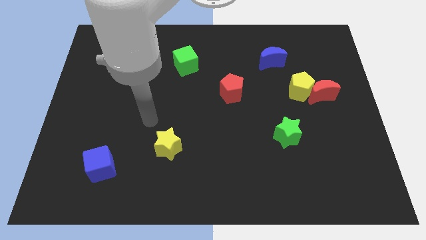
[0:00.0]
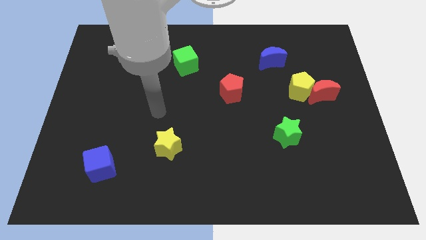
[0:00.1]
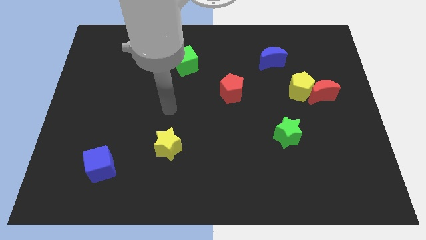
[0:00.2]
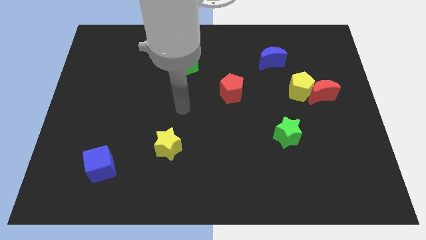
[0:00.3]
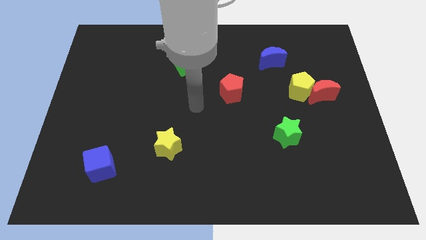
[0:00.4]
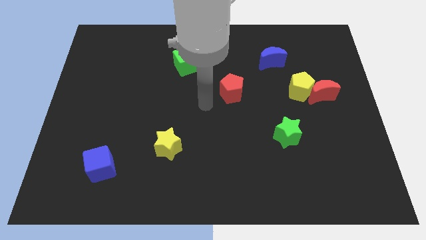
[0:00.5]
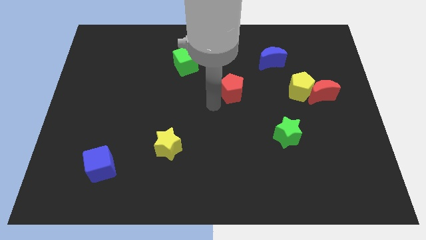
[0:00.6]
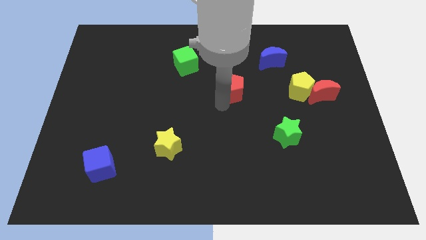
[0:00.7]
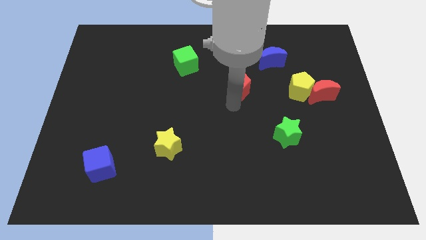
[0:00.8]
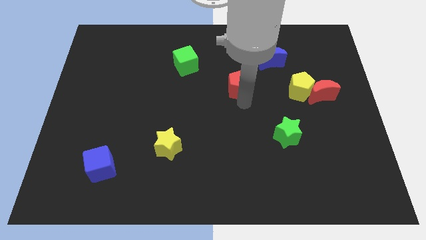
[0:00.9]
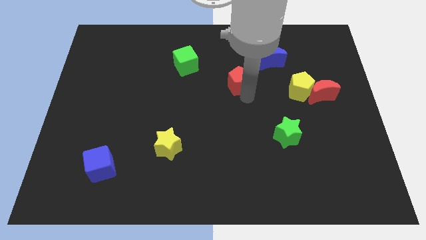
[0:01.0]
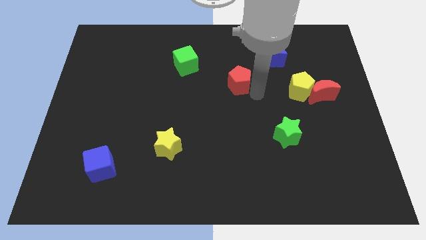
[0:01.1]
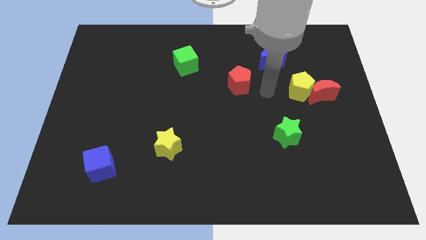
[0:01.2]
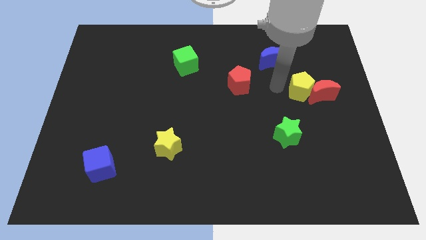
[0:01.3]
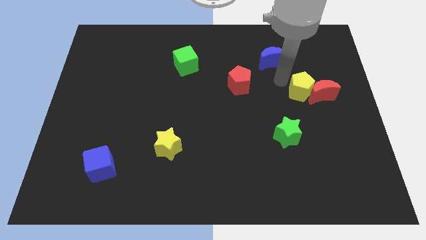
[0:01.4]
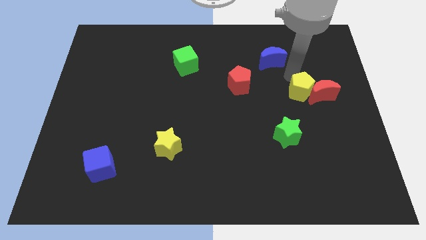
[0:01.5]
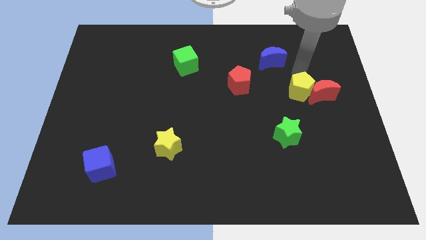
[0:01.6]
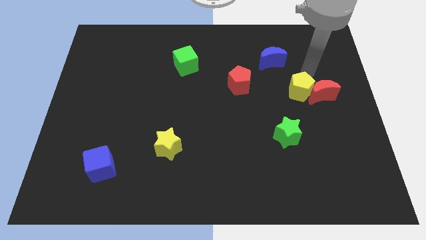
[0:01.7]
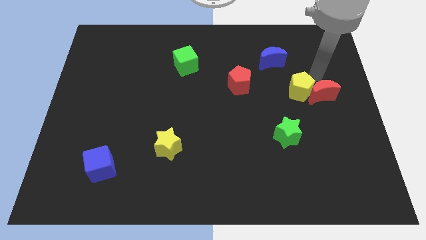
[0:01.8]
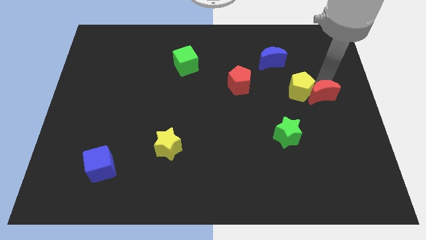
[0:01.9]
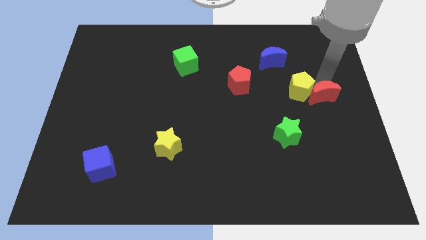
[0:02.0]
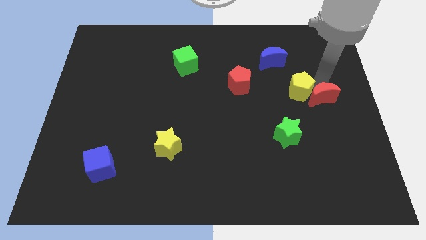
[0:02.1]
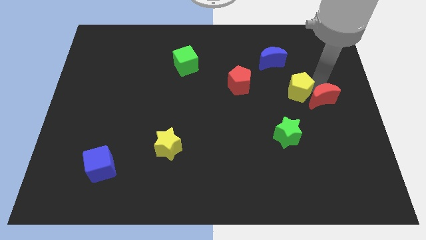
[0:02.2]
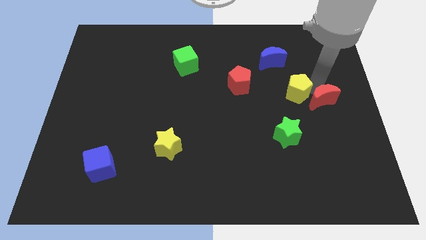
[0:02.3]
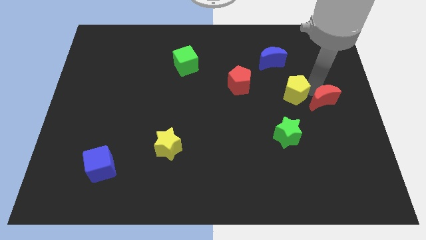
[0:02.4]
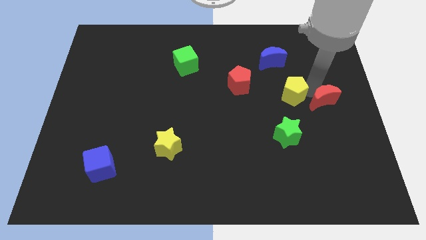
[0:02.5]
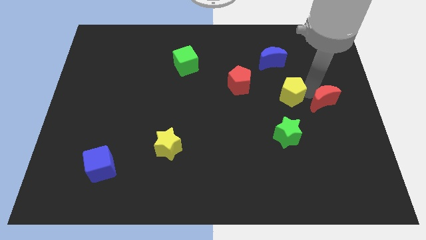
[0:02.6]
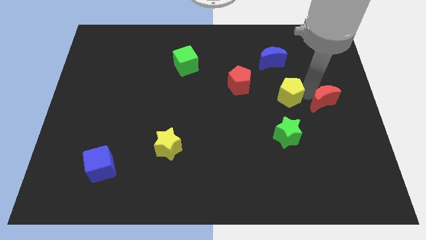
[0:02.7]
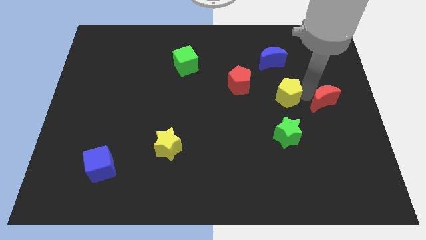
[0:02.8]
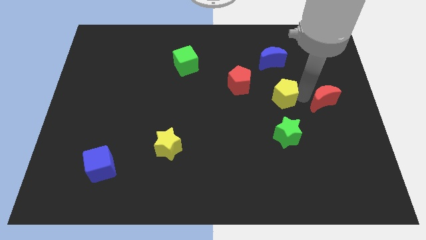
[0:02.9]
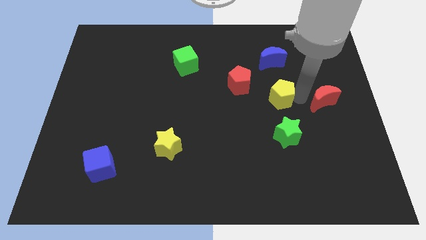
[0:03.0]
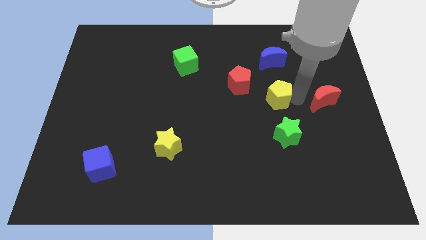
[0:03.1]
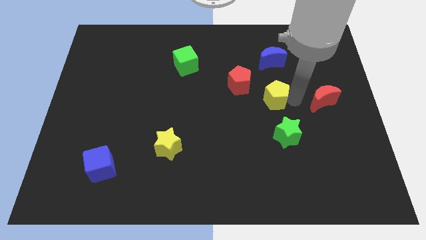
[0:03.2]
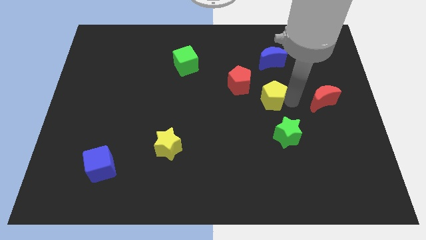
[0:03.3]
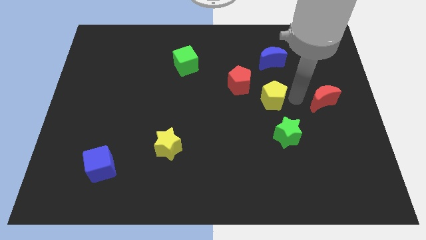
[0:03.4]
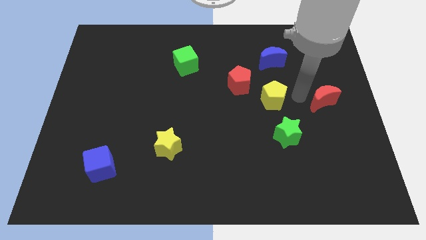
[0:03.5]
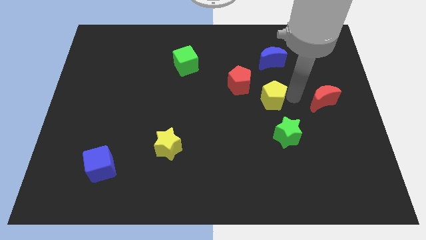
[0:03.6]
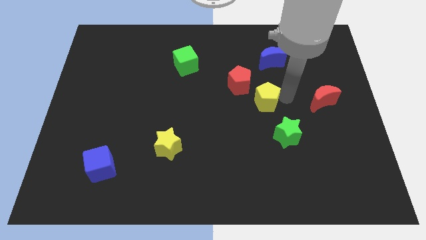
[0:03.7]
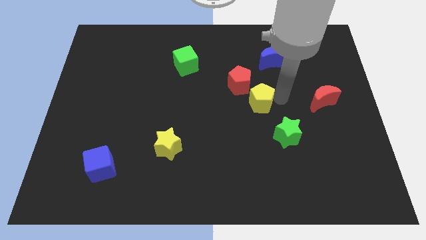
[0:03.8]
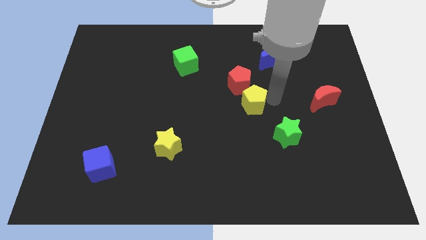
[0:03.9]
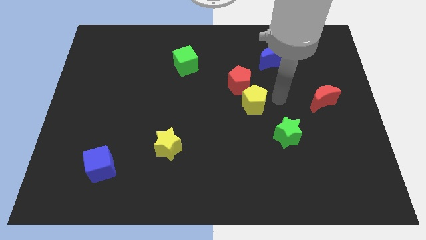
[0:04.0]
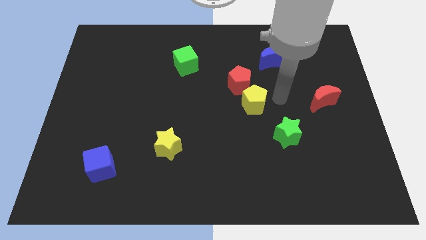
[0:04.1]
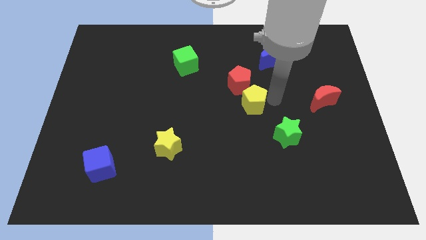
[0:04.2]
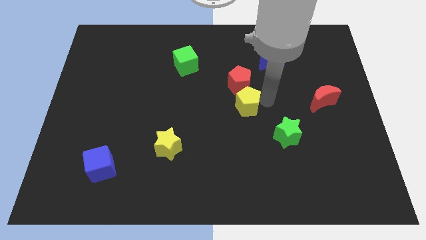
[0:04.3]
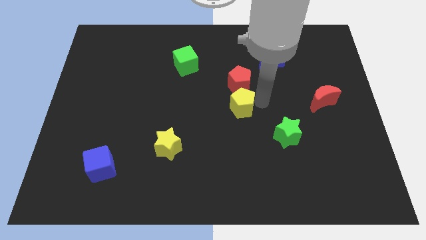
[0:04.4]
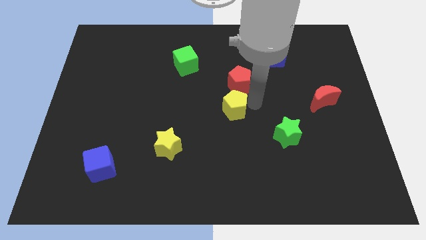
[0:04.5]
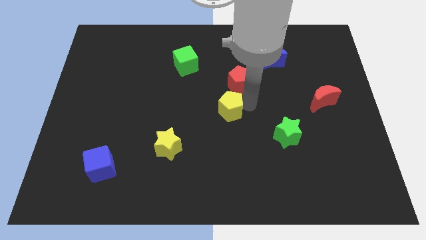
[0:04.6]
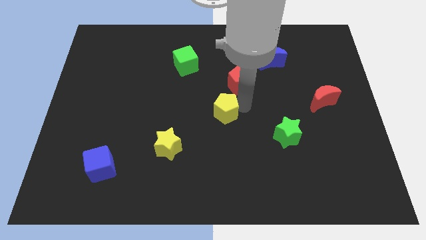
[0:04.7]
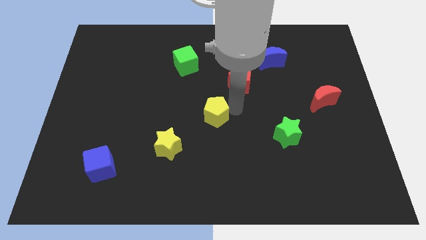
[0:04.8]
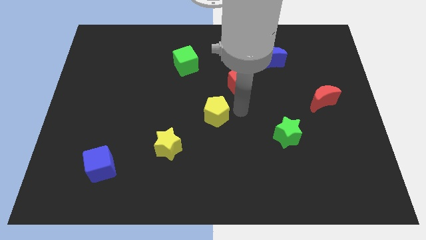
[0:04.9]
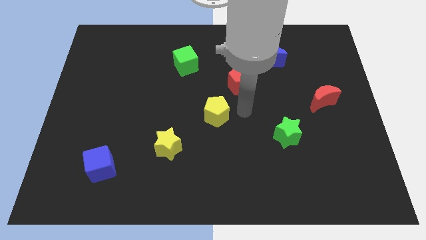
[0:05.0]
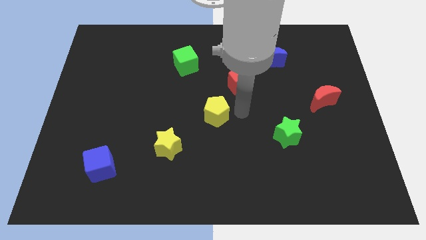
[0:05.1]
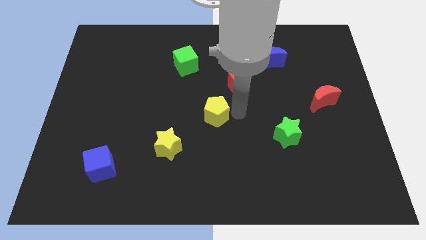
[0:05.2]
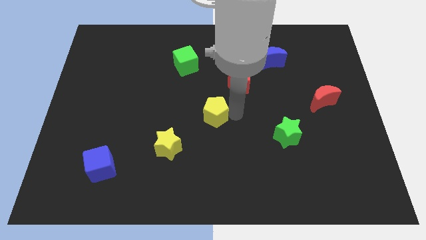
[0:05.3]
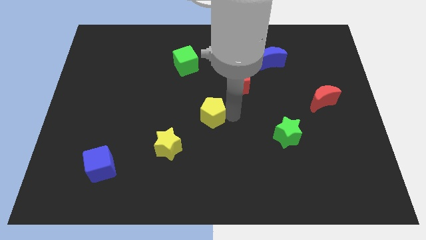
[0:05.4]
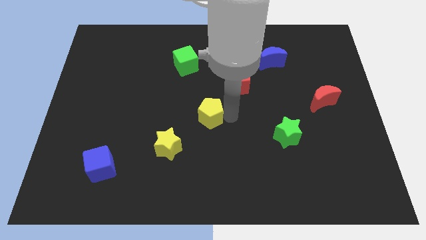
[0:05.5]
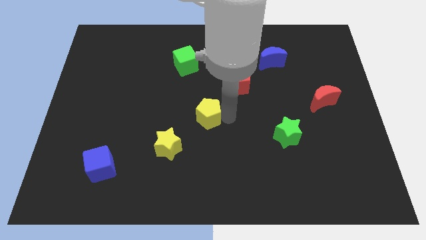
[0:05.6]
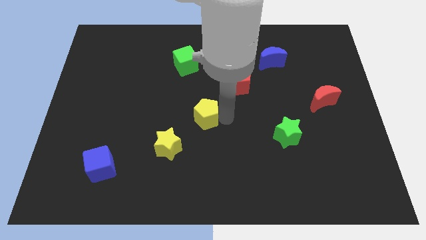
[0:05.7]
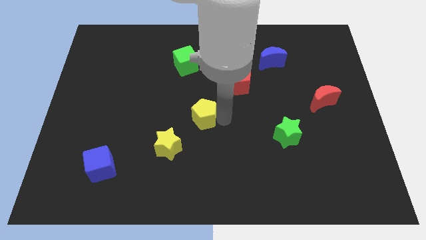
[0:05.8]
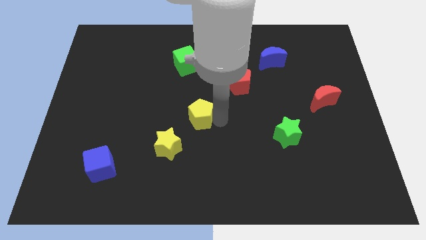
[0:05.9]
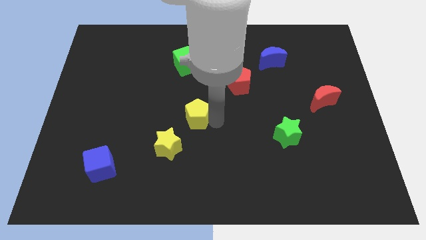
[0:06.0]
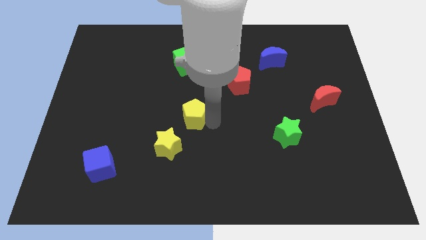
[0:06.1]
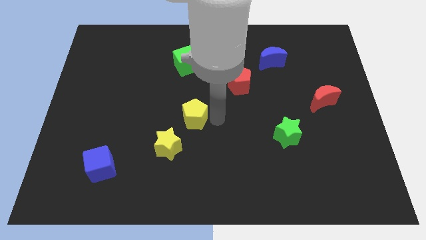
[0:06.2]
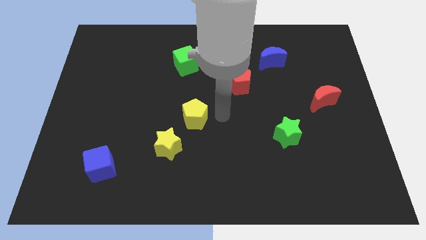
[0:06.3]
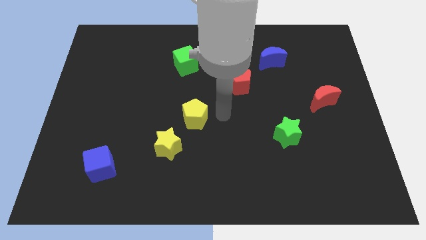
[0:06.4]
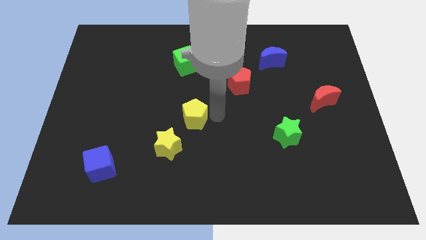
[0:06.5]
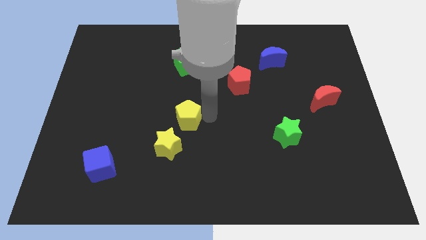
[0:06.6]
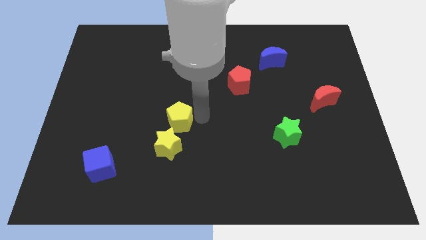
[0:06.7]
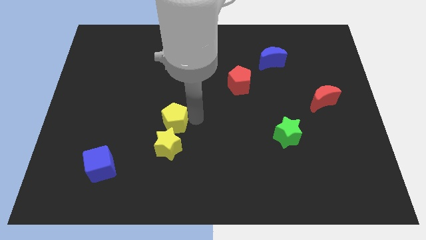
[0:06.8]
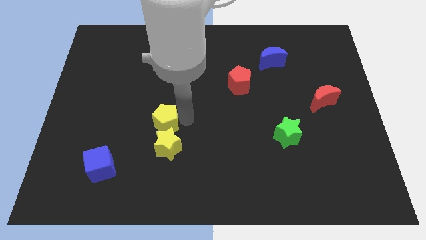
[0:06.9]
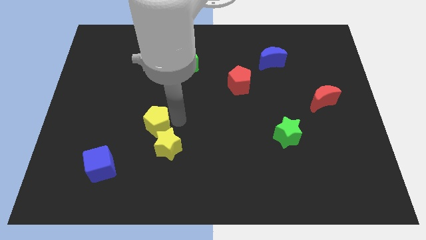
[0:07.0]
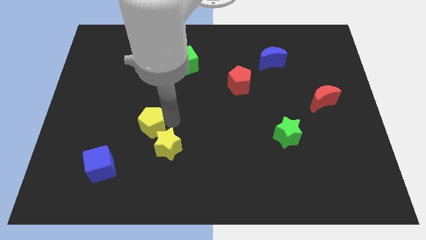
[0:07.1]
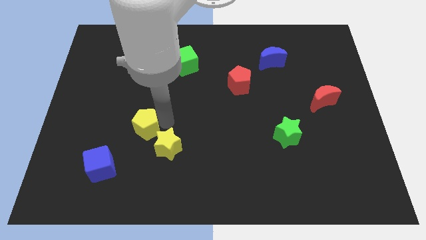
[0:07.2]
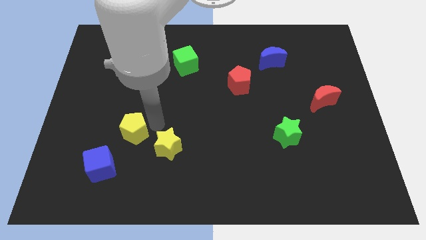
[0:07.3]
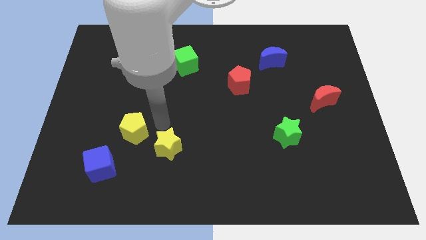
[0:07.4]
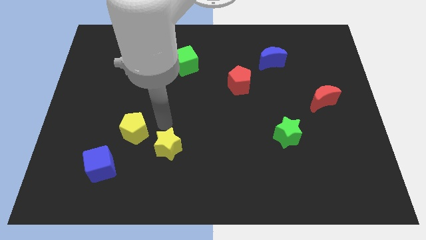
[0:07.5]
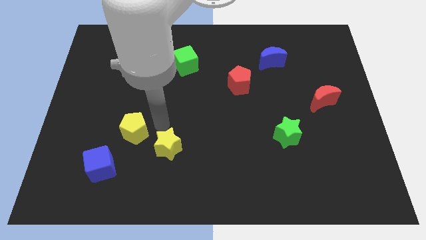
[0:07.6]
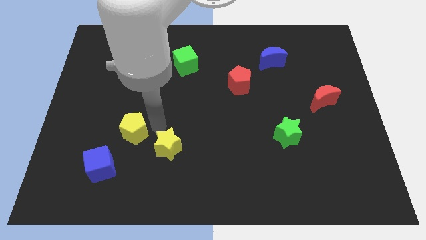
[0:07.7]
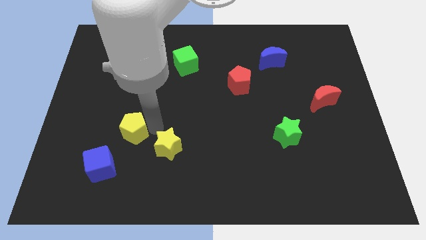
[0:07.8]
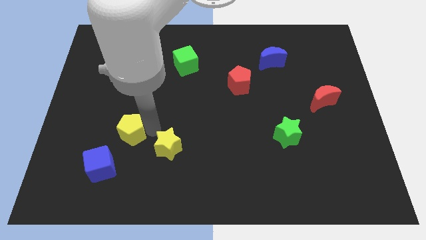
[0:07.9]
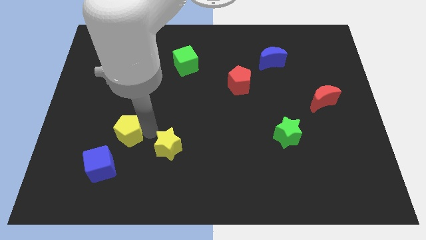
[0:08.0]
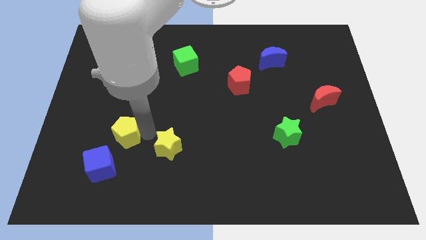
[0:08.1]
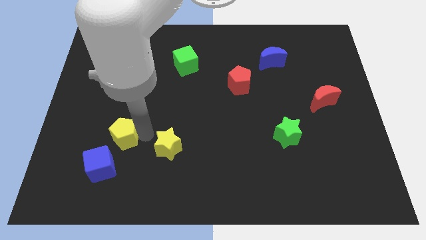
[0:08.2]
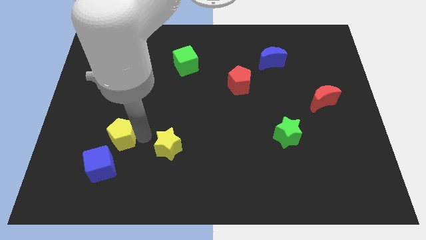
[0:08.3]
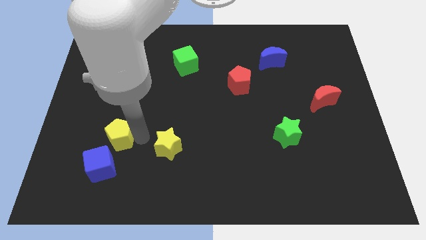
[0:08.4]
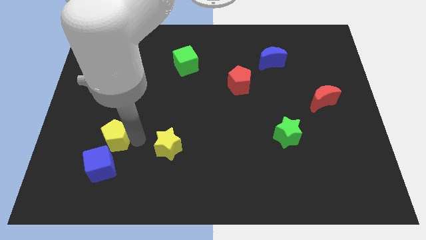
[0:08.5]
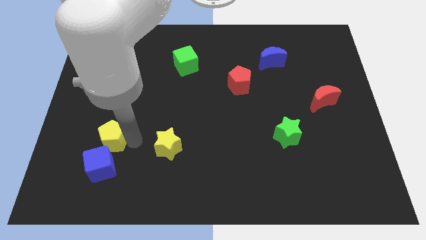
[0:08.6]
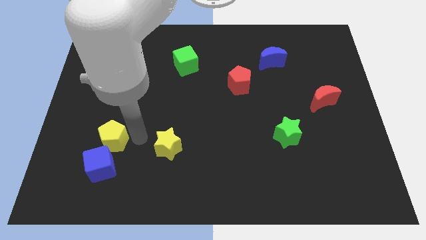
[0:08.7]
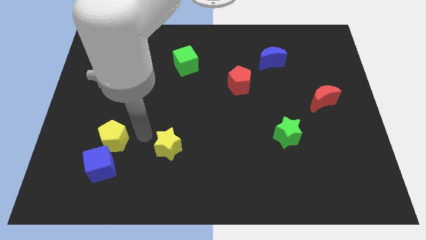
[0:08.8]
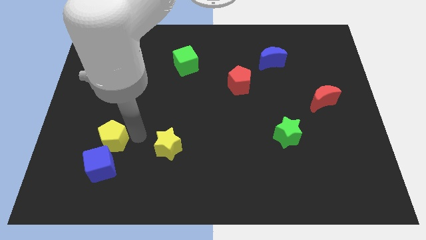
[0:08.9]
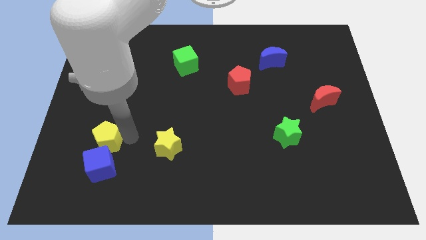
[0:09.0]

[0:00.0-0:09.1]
push the yellow pentagon diagonally up and to the left of the blue cube
